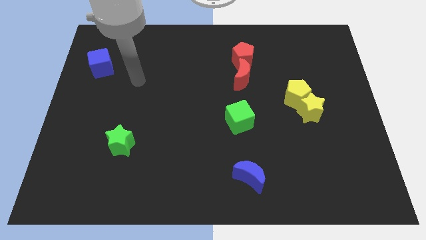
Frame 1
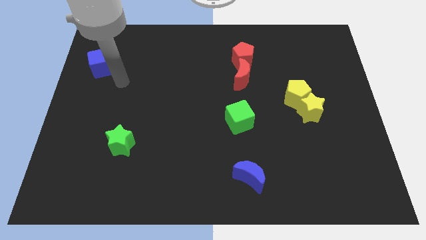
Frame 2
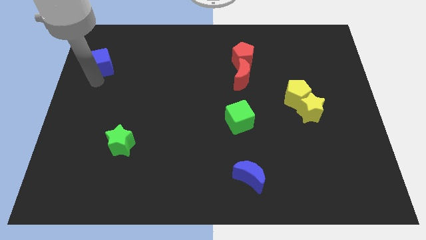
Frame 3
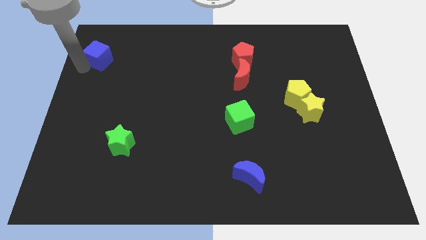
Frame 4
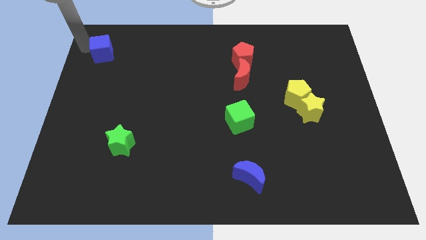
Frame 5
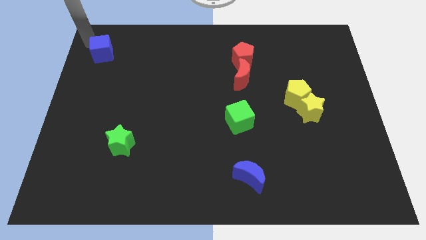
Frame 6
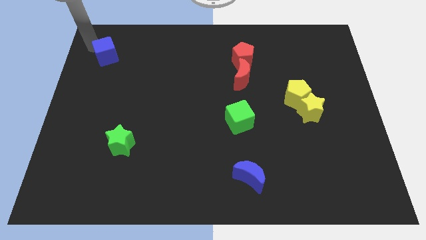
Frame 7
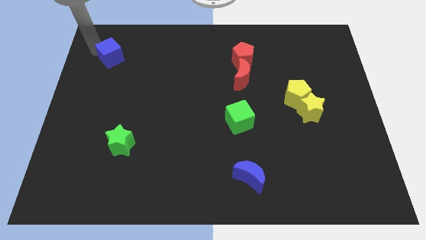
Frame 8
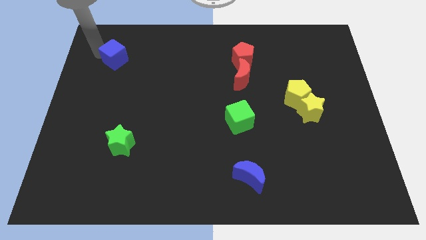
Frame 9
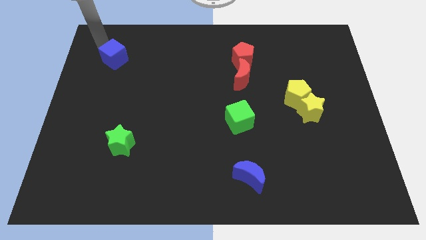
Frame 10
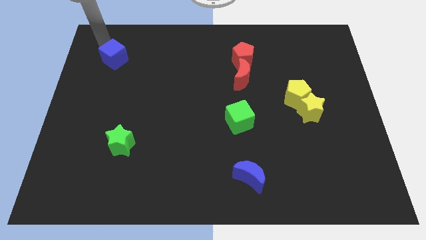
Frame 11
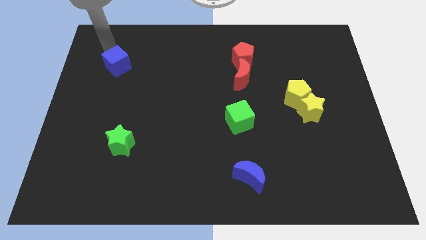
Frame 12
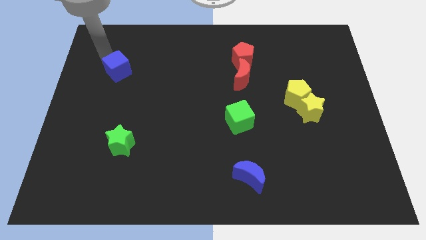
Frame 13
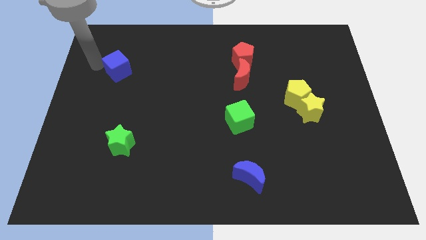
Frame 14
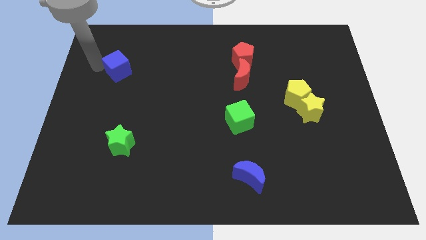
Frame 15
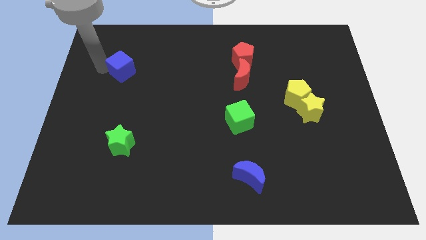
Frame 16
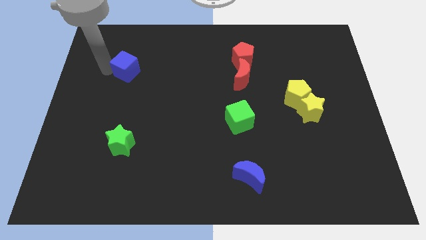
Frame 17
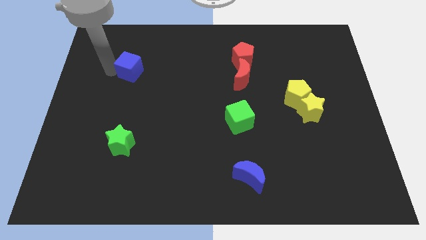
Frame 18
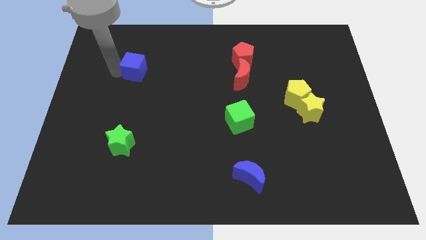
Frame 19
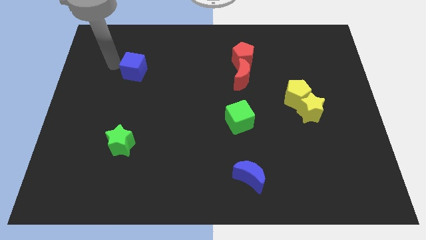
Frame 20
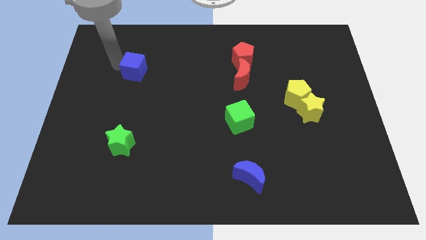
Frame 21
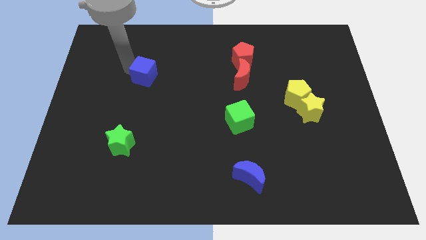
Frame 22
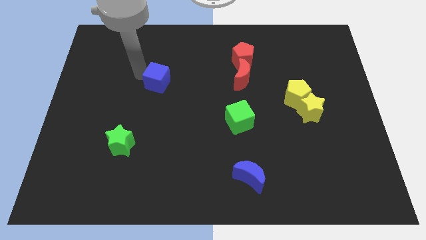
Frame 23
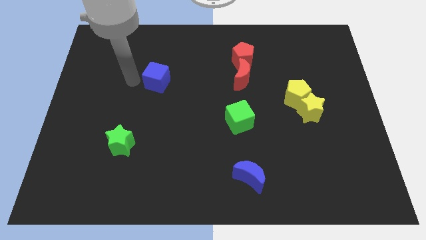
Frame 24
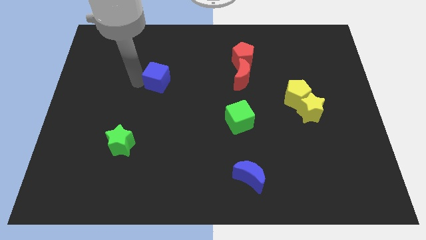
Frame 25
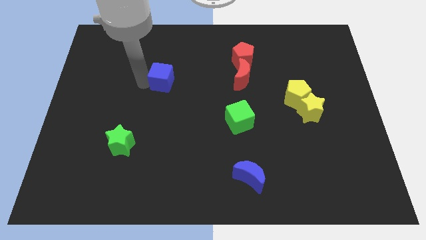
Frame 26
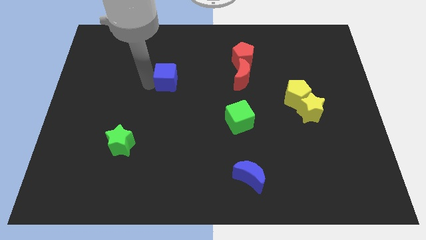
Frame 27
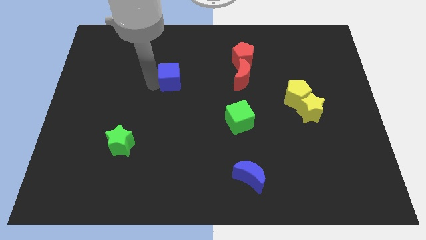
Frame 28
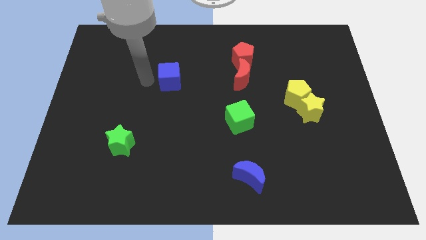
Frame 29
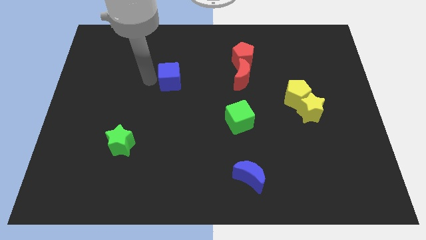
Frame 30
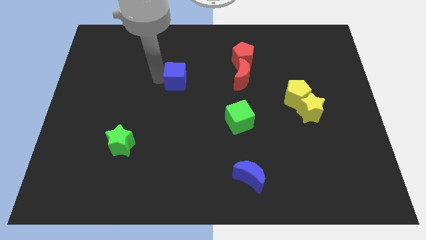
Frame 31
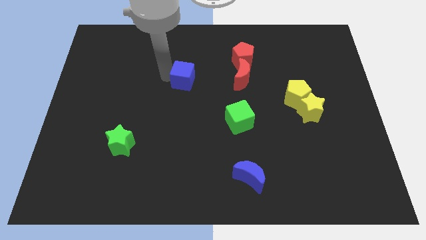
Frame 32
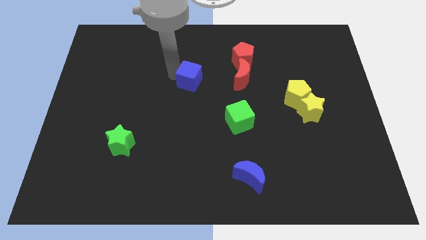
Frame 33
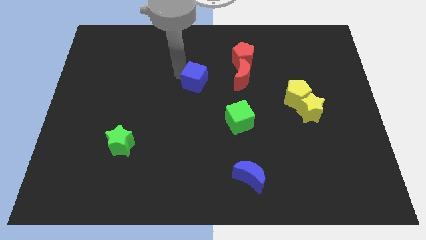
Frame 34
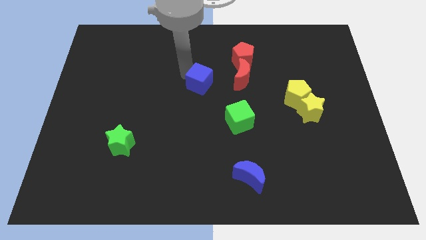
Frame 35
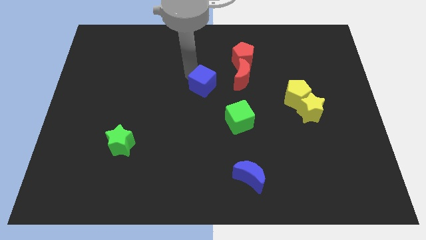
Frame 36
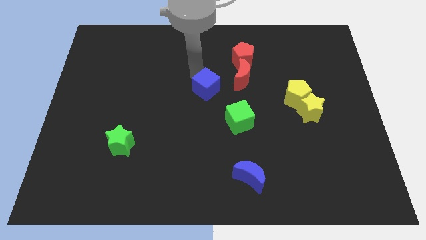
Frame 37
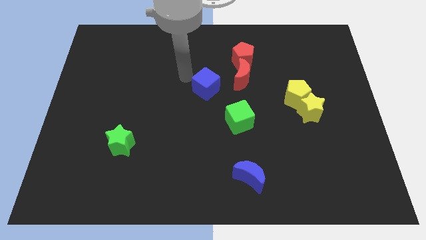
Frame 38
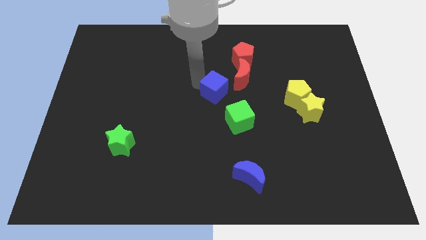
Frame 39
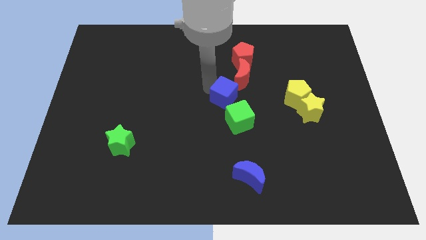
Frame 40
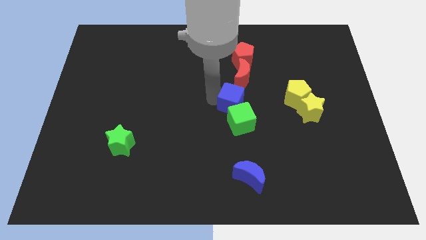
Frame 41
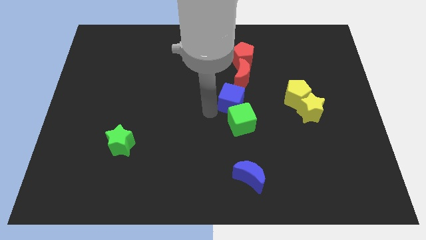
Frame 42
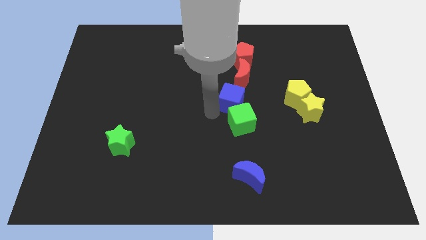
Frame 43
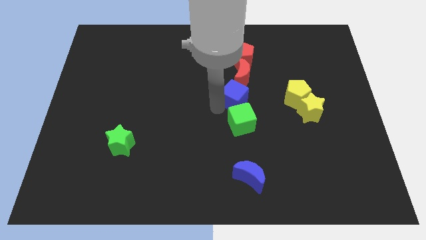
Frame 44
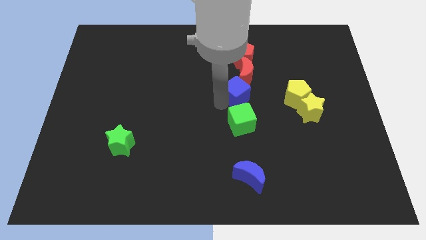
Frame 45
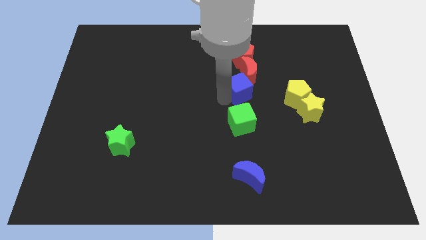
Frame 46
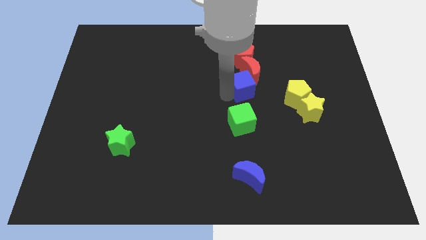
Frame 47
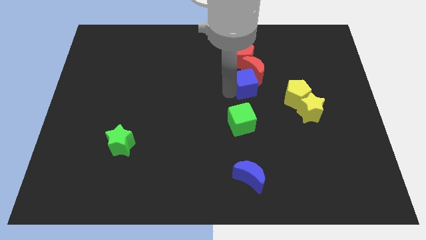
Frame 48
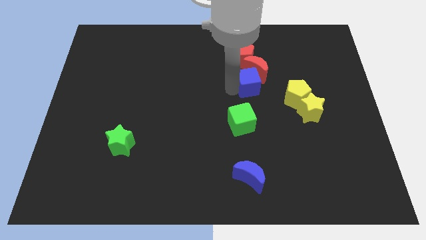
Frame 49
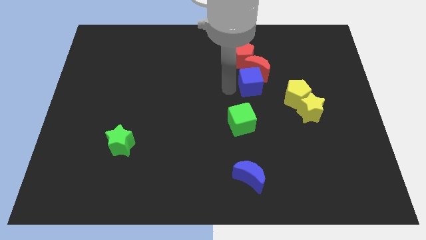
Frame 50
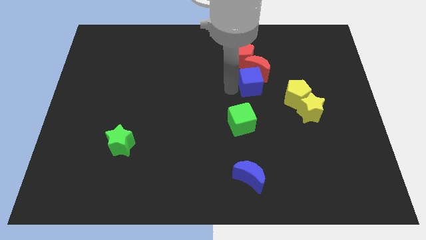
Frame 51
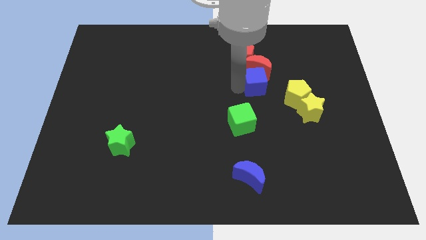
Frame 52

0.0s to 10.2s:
slide the blue cube to the top left of the yellow pentagon

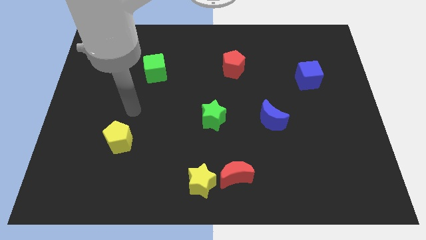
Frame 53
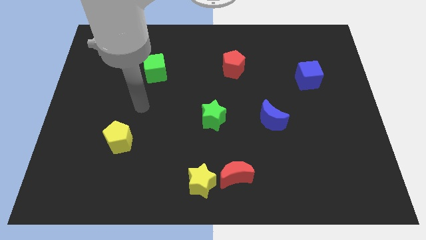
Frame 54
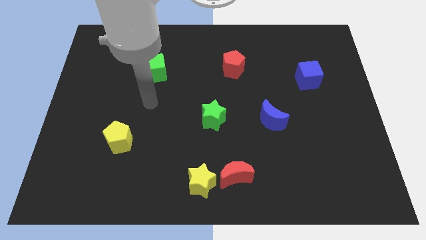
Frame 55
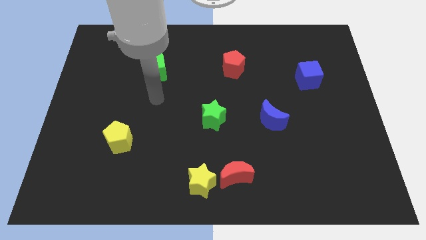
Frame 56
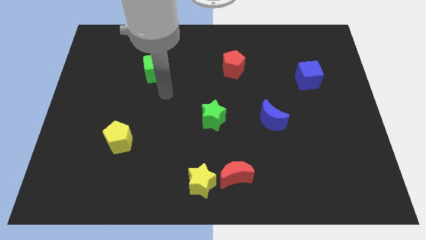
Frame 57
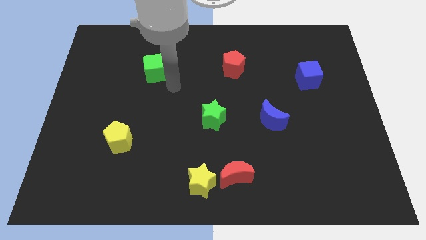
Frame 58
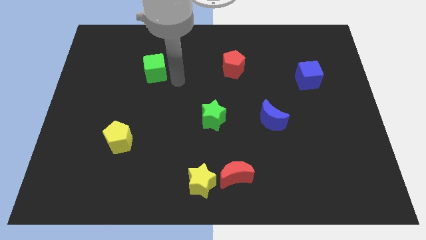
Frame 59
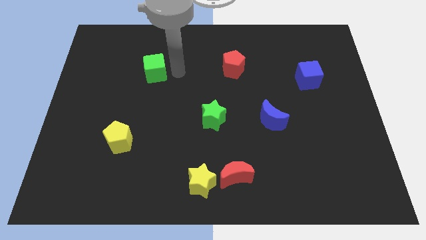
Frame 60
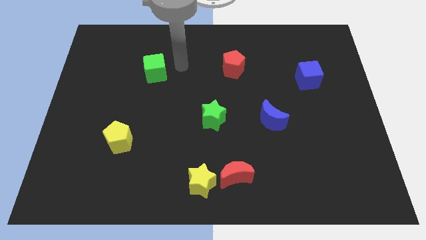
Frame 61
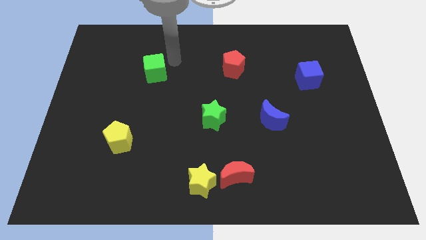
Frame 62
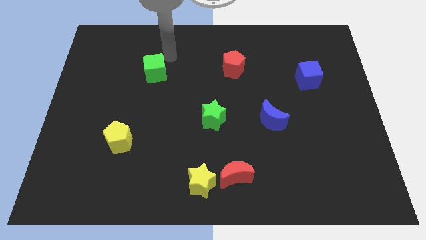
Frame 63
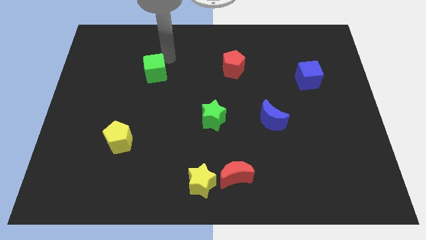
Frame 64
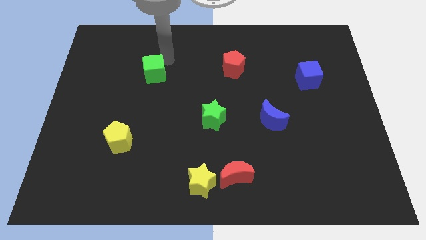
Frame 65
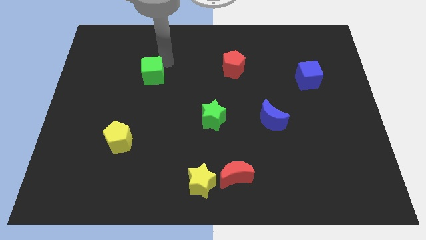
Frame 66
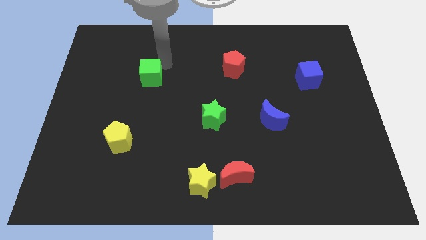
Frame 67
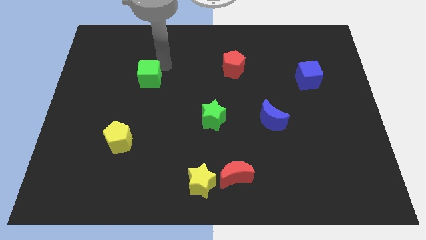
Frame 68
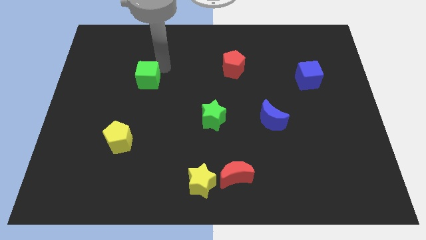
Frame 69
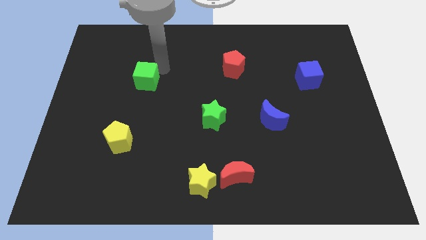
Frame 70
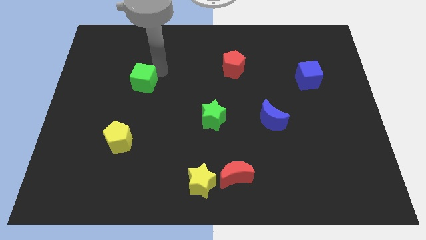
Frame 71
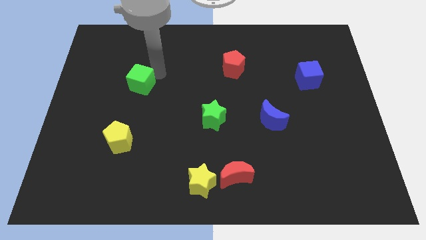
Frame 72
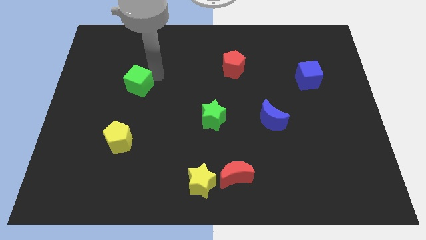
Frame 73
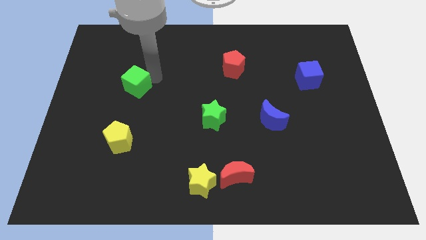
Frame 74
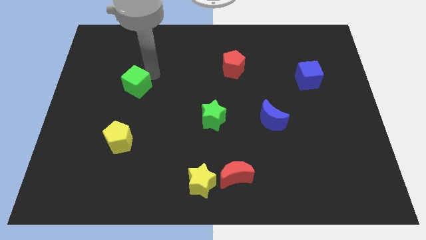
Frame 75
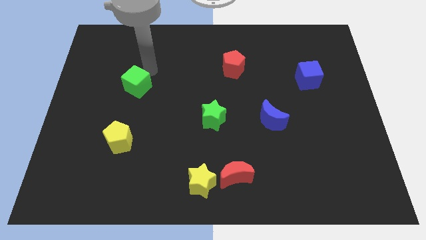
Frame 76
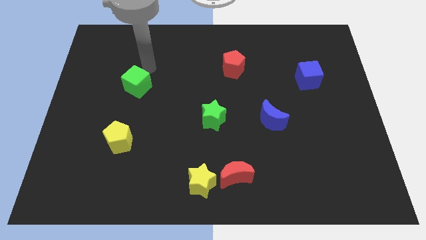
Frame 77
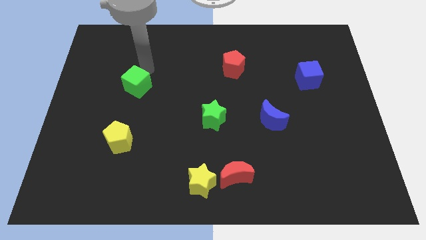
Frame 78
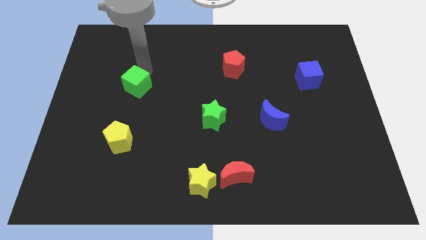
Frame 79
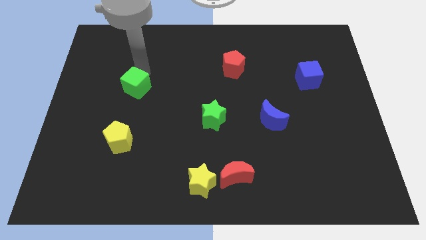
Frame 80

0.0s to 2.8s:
slide the green cube to the top side of the yellow pentagon
